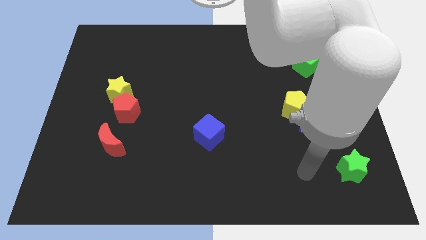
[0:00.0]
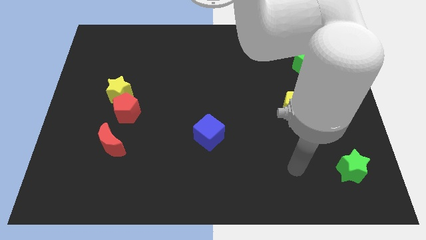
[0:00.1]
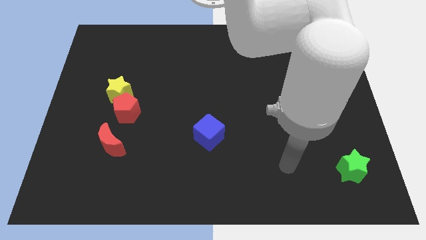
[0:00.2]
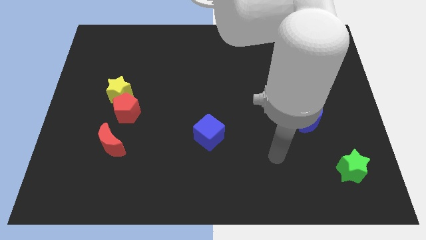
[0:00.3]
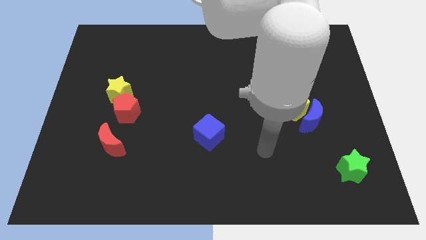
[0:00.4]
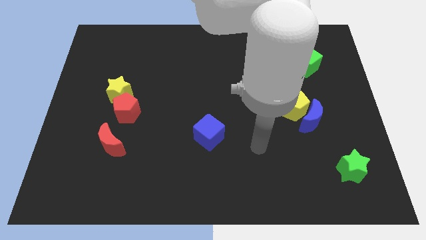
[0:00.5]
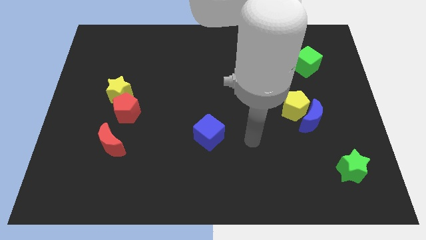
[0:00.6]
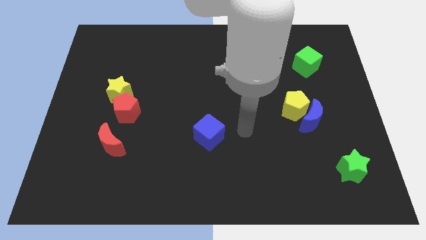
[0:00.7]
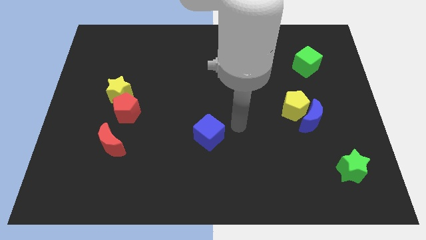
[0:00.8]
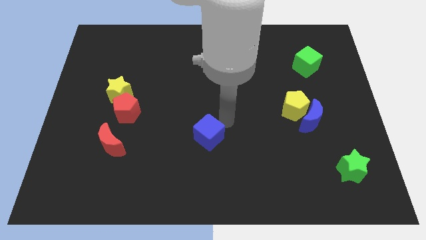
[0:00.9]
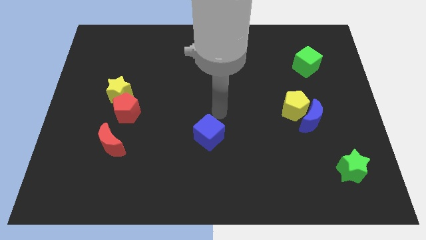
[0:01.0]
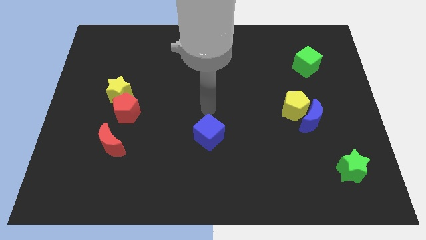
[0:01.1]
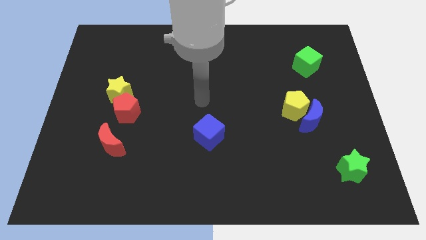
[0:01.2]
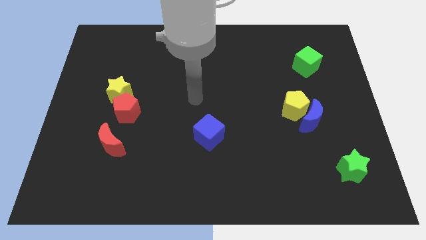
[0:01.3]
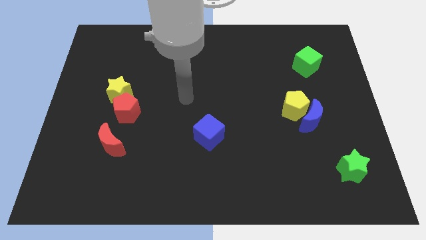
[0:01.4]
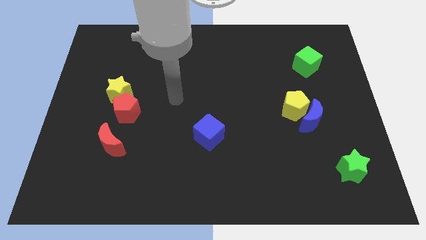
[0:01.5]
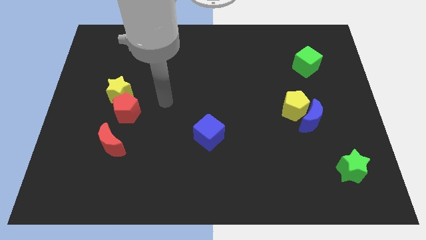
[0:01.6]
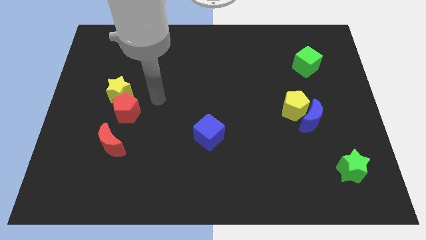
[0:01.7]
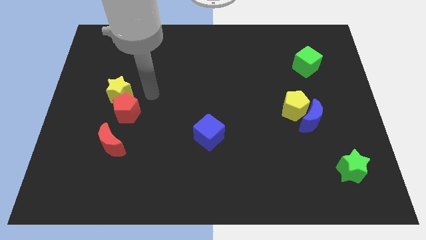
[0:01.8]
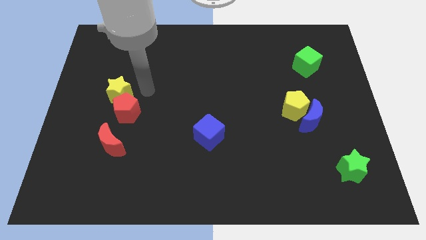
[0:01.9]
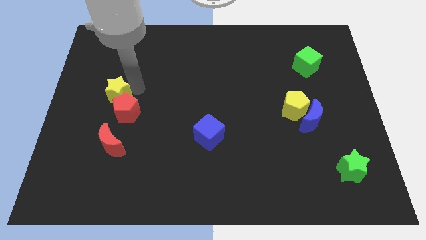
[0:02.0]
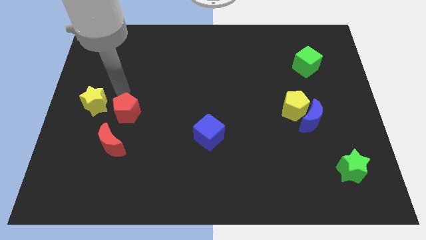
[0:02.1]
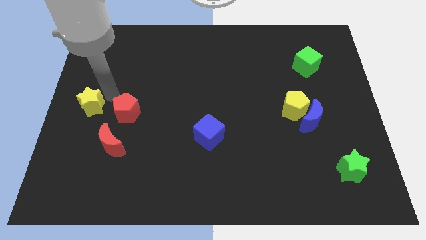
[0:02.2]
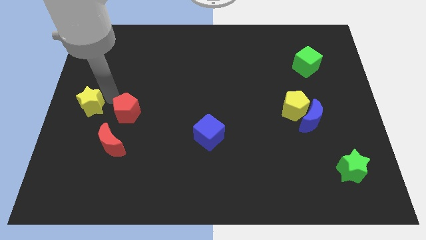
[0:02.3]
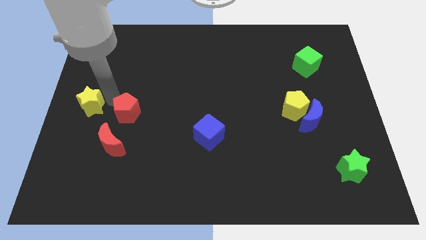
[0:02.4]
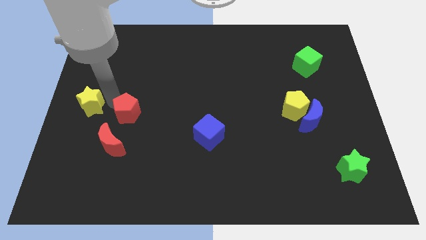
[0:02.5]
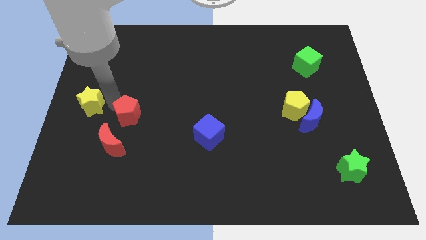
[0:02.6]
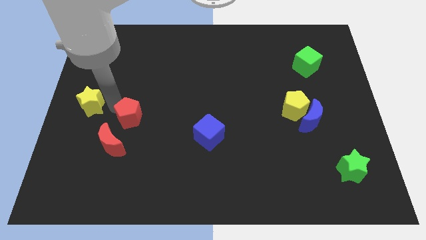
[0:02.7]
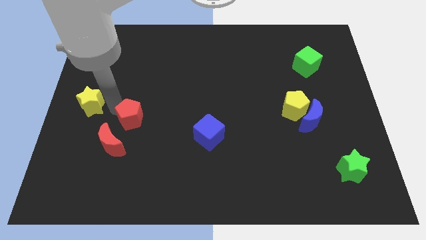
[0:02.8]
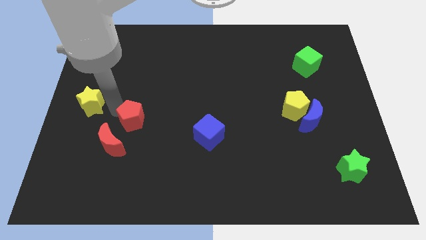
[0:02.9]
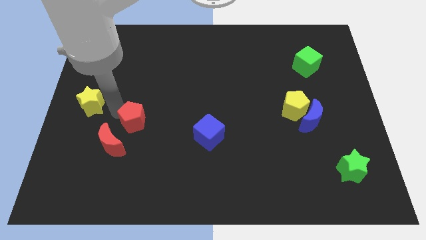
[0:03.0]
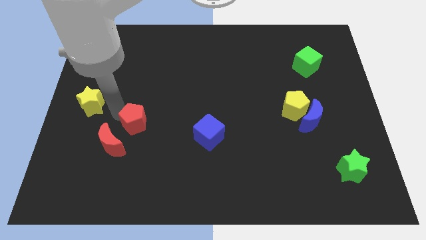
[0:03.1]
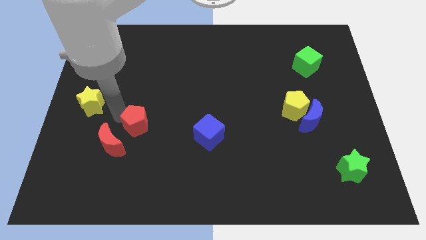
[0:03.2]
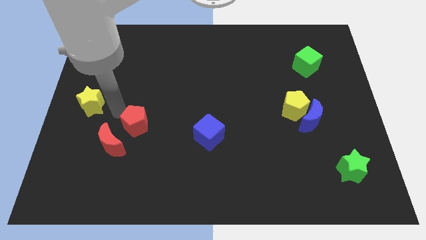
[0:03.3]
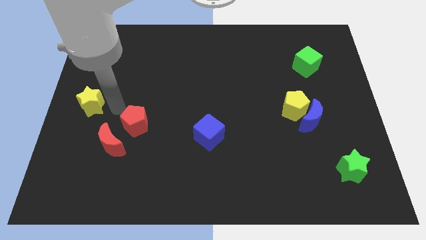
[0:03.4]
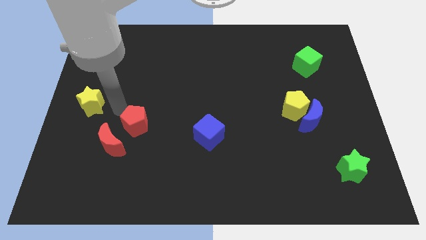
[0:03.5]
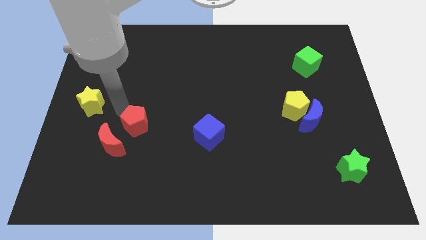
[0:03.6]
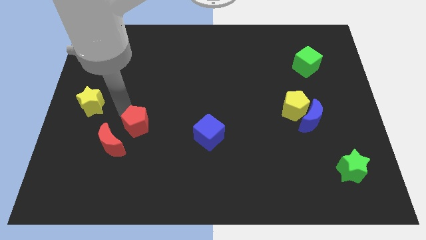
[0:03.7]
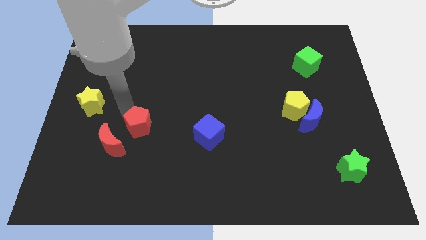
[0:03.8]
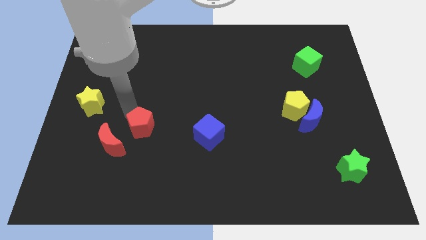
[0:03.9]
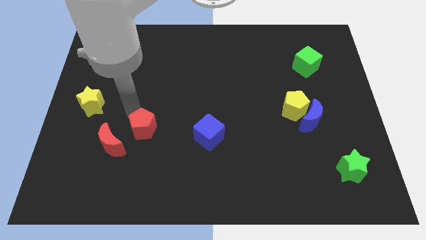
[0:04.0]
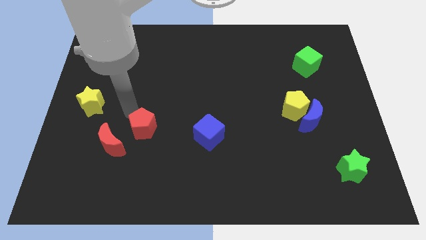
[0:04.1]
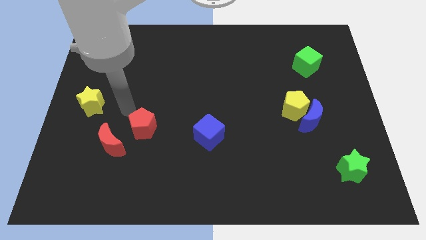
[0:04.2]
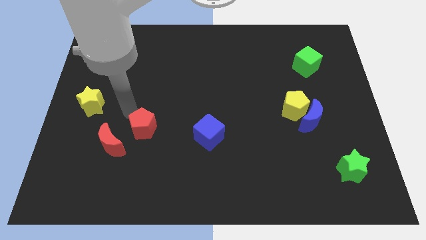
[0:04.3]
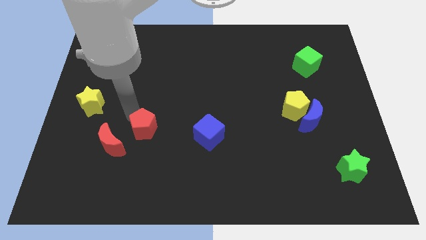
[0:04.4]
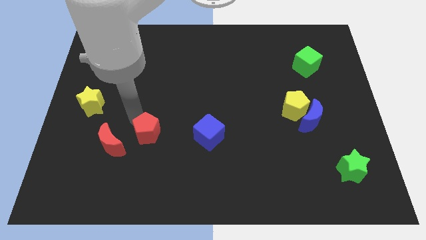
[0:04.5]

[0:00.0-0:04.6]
slide the red pentagon a little bit diagonally downwards and to the right

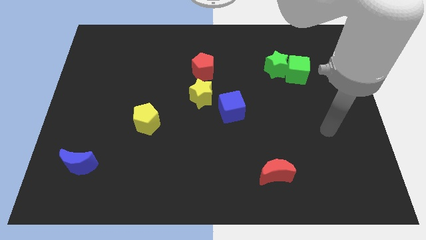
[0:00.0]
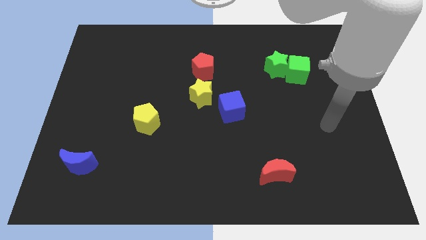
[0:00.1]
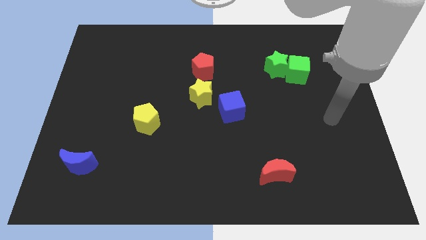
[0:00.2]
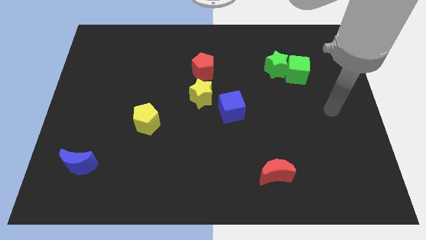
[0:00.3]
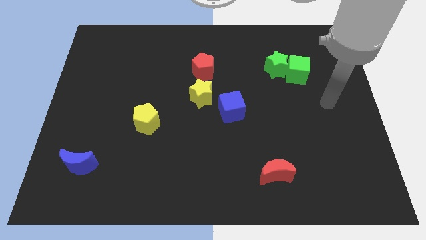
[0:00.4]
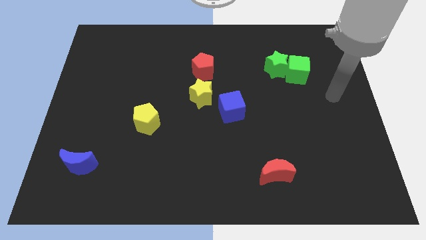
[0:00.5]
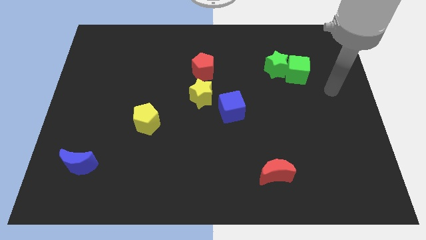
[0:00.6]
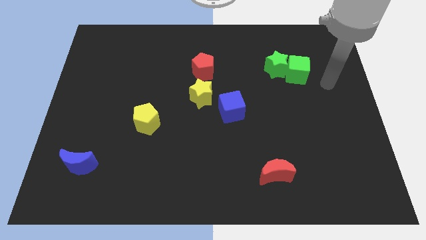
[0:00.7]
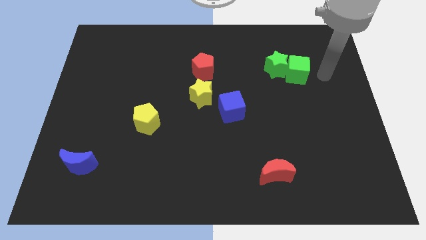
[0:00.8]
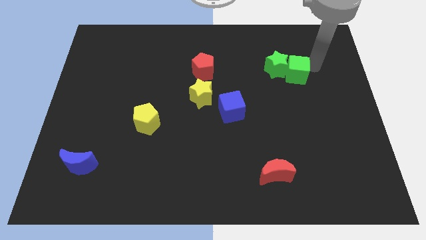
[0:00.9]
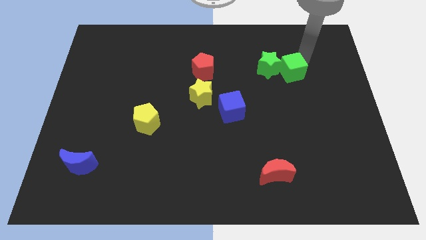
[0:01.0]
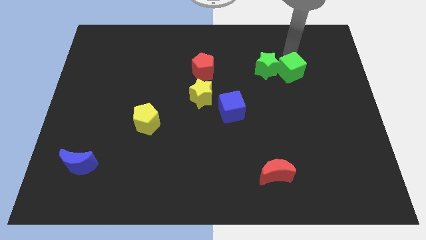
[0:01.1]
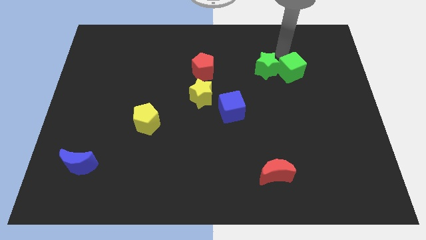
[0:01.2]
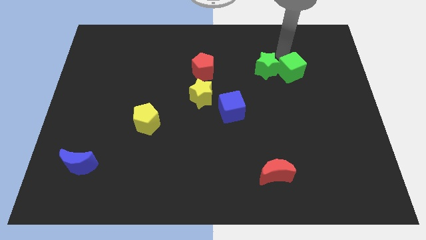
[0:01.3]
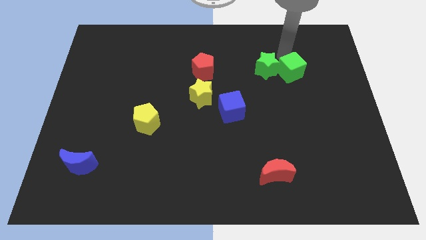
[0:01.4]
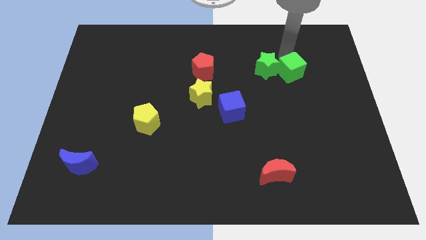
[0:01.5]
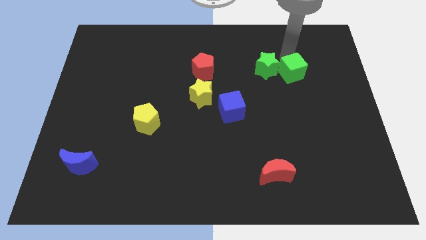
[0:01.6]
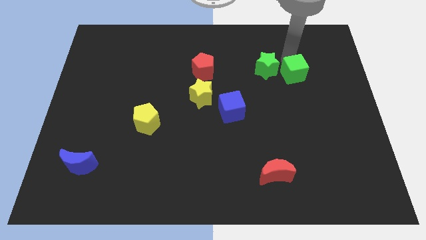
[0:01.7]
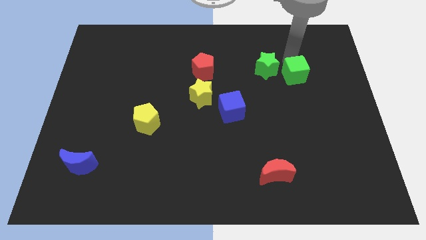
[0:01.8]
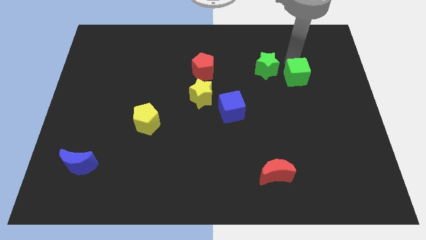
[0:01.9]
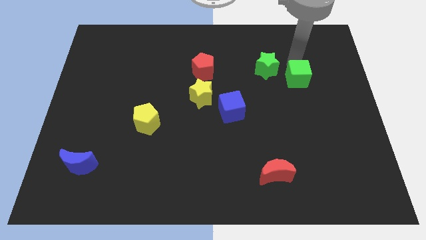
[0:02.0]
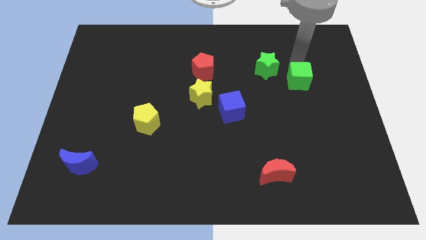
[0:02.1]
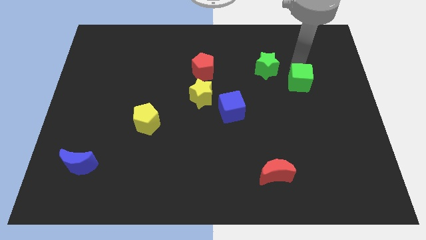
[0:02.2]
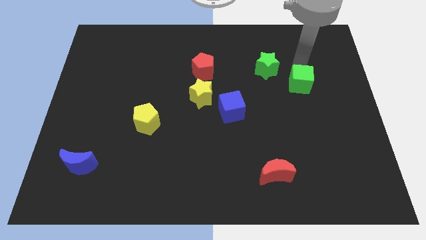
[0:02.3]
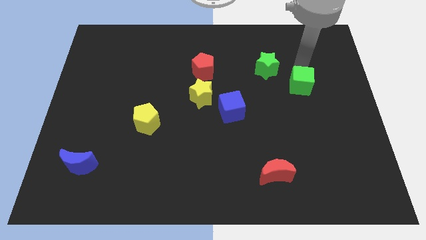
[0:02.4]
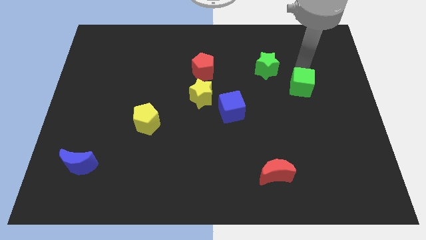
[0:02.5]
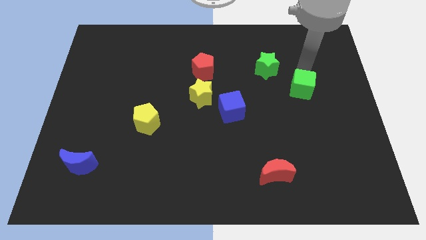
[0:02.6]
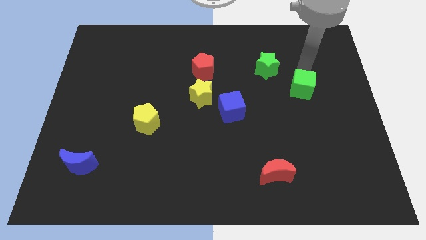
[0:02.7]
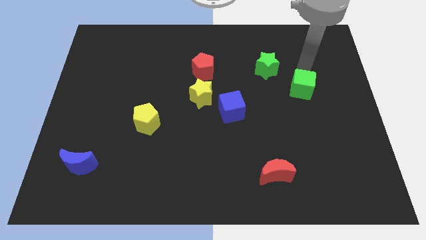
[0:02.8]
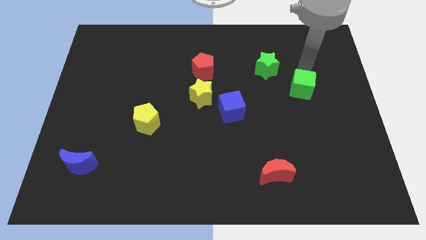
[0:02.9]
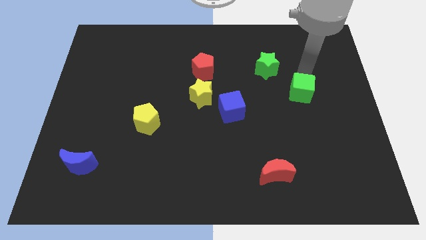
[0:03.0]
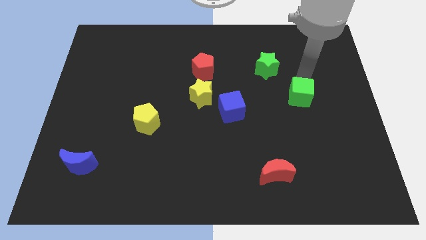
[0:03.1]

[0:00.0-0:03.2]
move the green cube downwards a little
